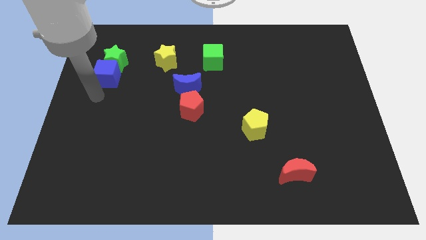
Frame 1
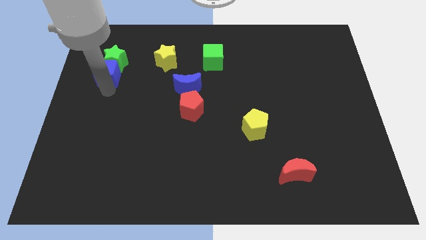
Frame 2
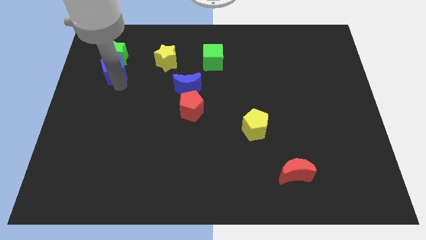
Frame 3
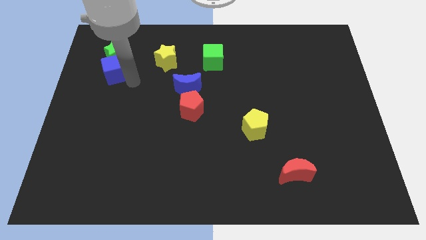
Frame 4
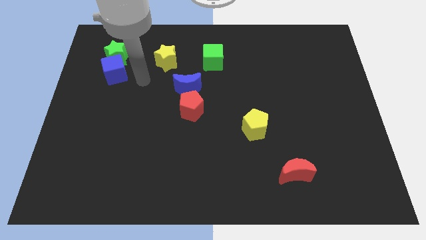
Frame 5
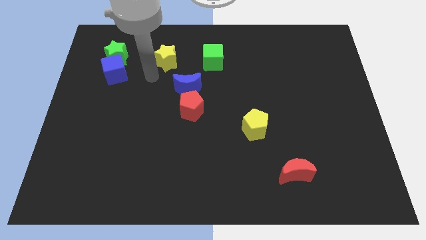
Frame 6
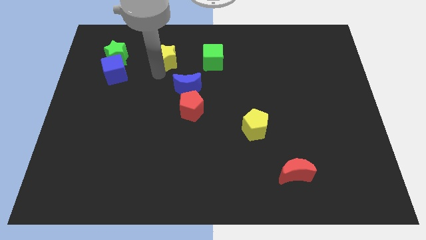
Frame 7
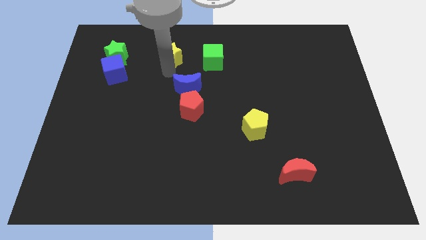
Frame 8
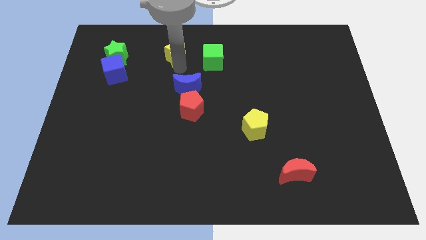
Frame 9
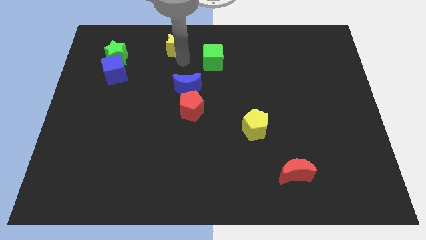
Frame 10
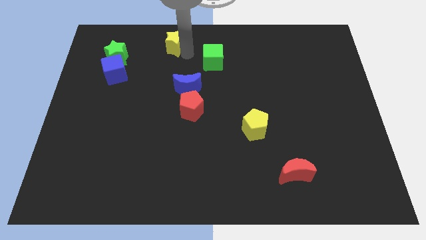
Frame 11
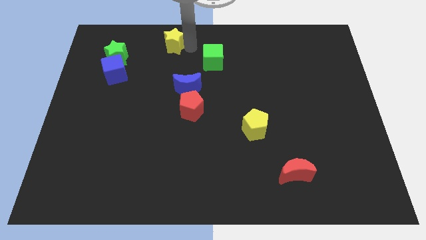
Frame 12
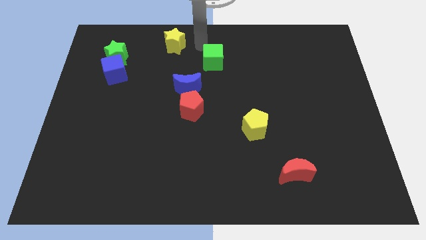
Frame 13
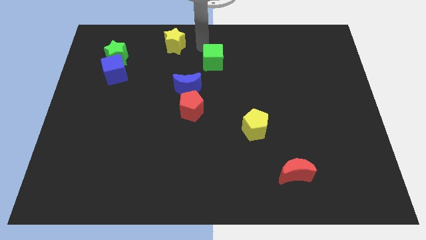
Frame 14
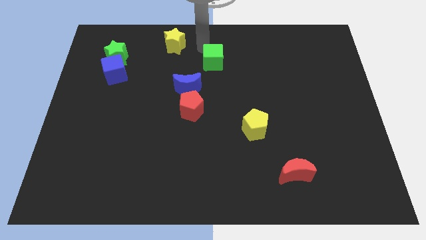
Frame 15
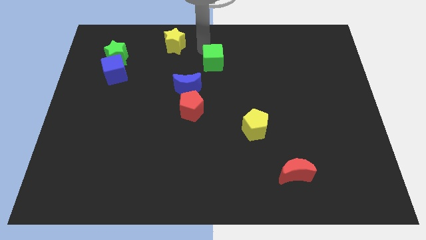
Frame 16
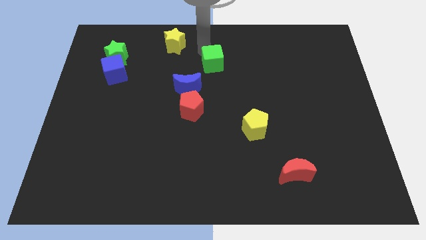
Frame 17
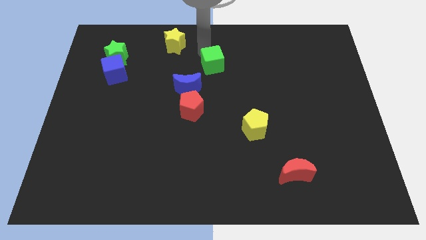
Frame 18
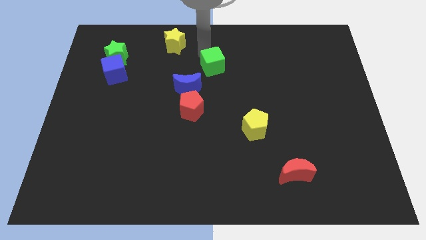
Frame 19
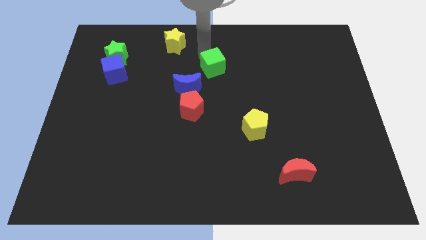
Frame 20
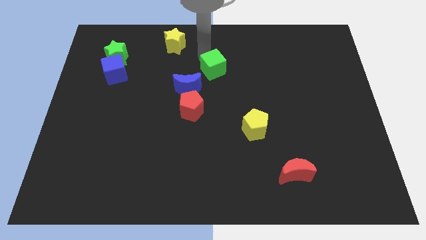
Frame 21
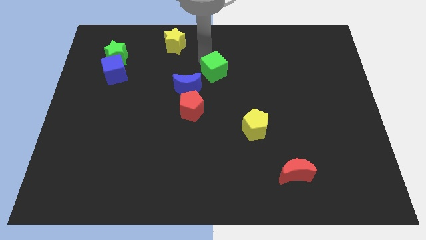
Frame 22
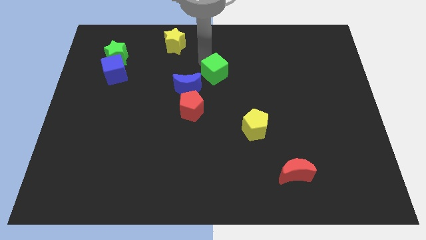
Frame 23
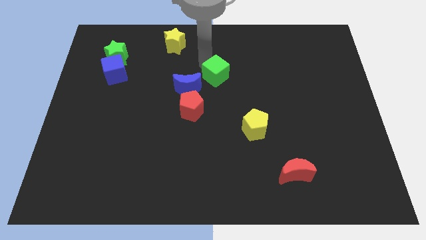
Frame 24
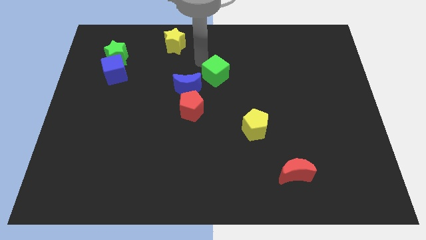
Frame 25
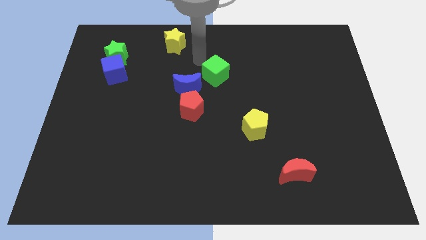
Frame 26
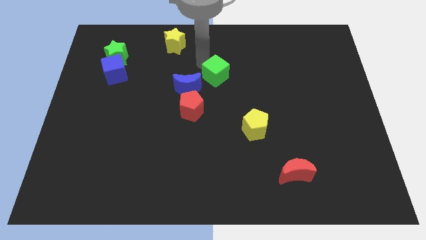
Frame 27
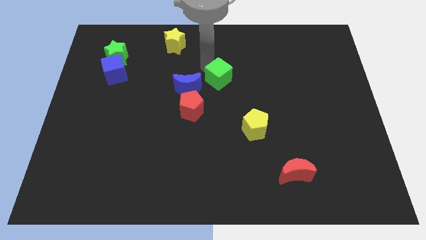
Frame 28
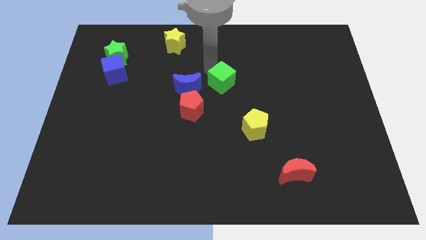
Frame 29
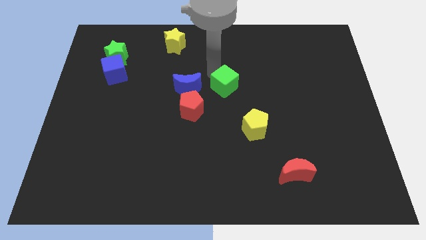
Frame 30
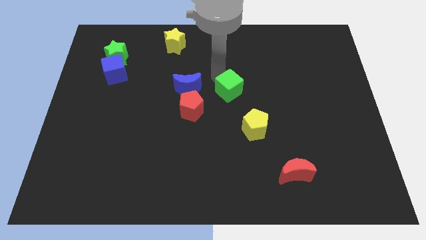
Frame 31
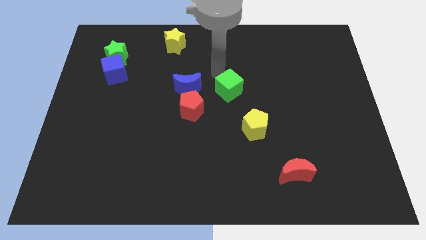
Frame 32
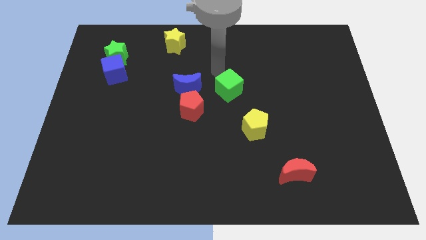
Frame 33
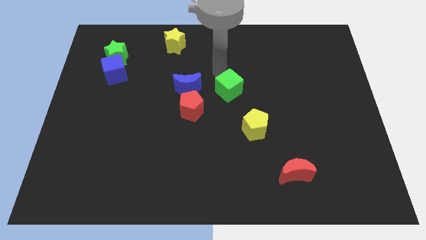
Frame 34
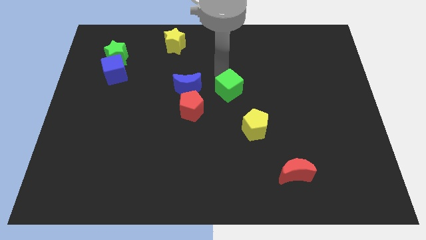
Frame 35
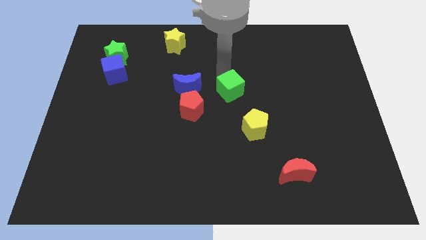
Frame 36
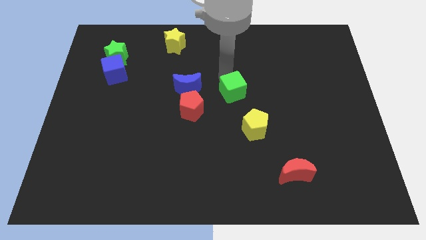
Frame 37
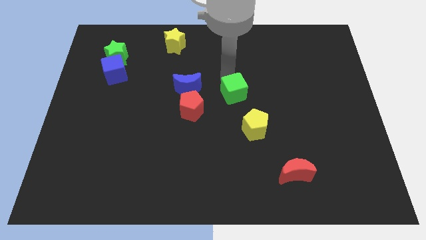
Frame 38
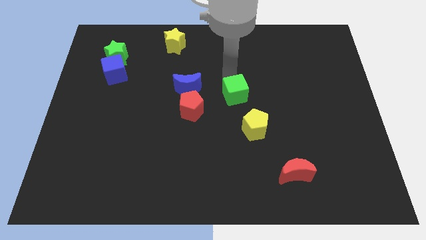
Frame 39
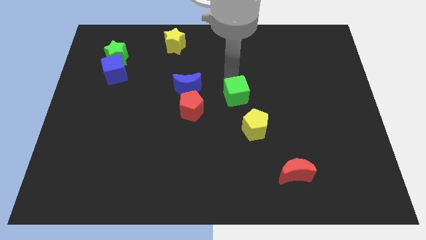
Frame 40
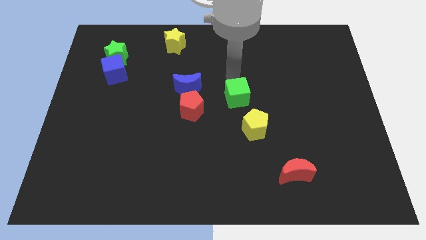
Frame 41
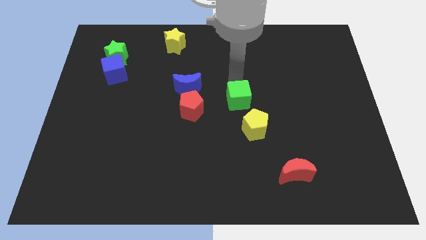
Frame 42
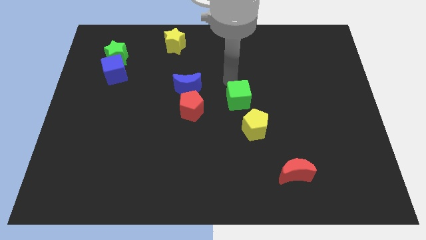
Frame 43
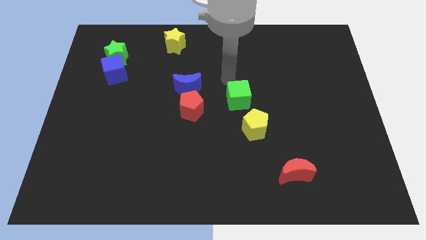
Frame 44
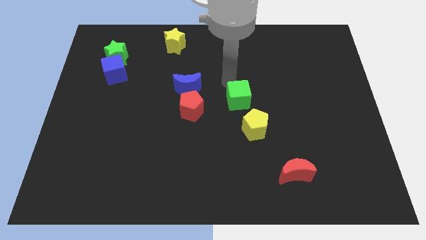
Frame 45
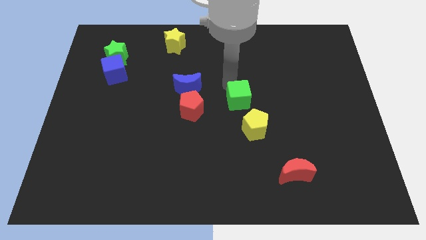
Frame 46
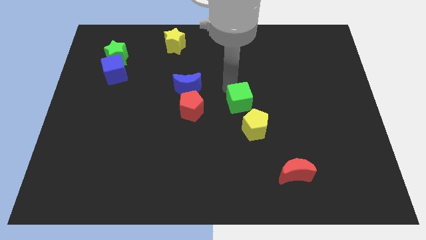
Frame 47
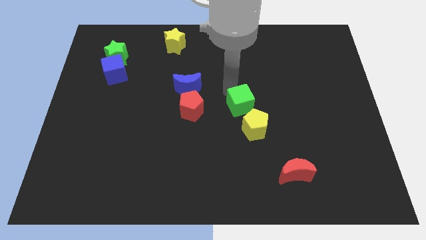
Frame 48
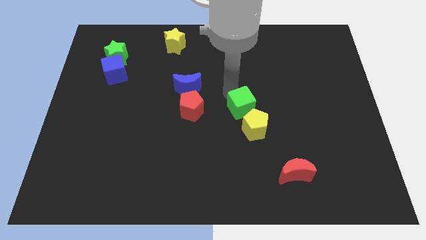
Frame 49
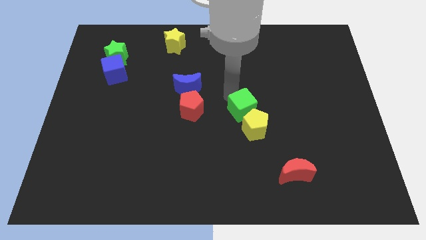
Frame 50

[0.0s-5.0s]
push the green cube close to the yellow pentagon
